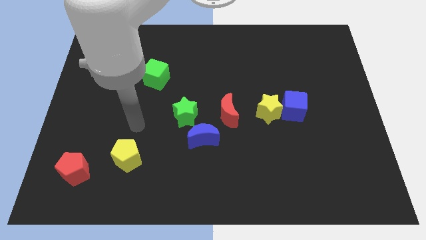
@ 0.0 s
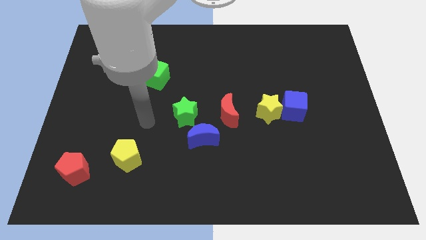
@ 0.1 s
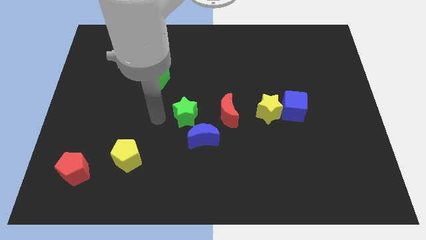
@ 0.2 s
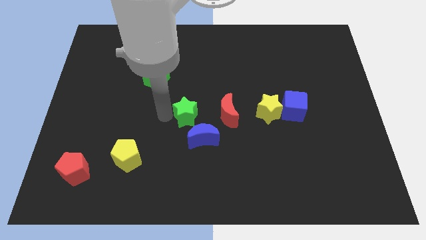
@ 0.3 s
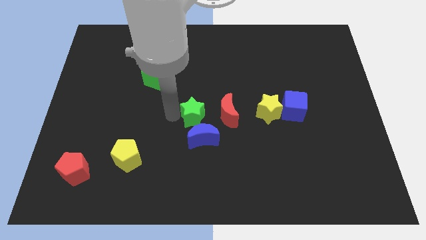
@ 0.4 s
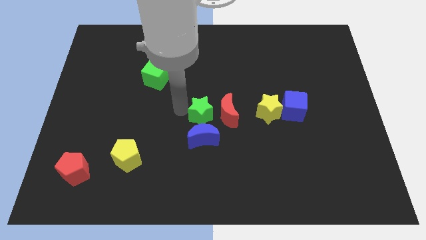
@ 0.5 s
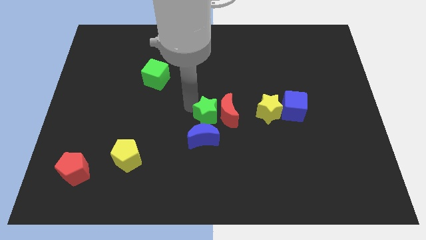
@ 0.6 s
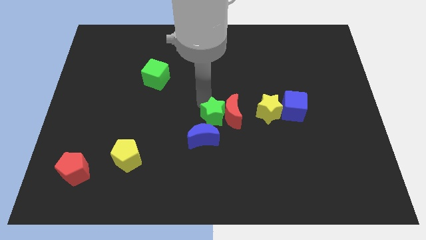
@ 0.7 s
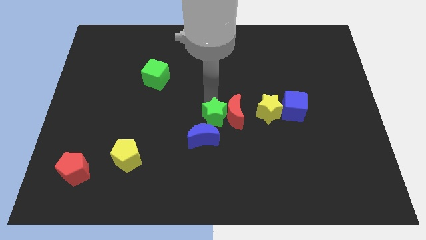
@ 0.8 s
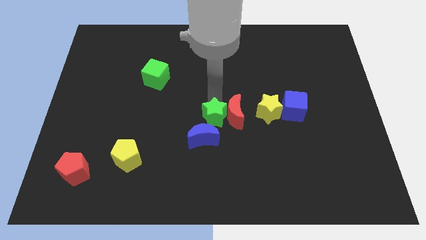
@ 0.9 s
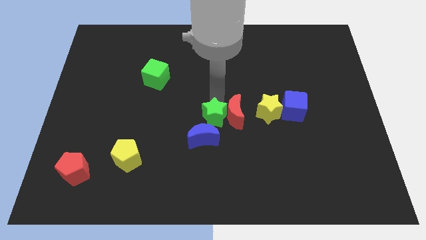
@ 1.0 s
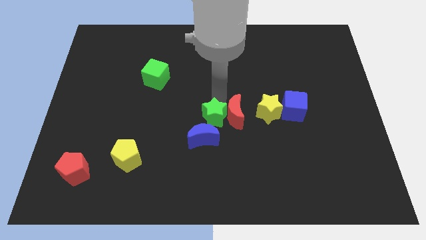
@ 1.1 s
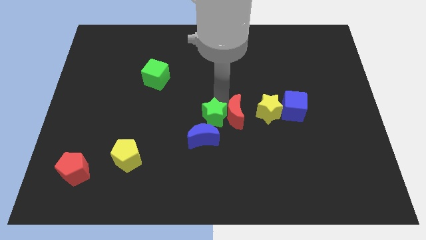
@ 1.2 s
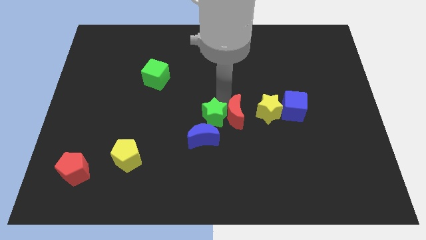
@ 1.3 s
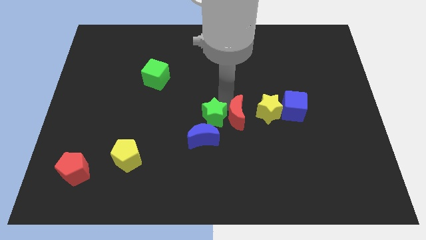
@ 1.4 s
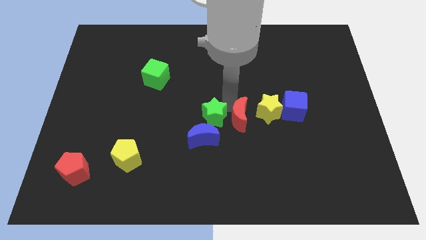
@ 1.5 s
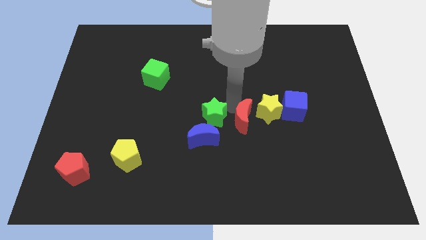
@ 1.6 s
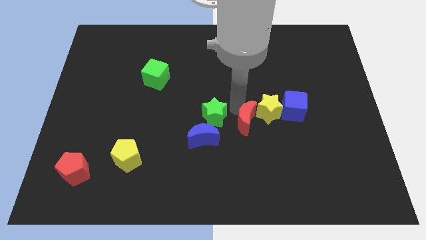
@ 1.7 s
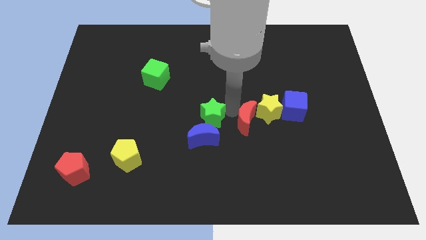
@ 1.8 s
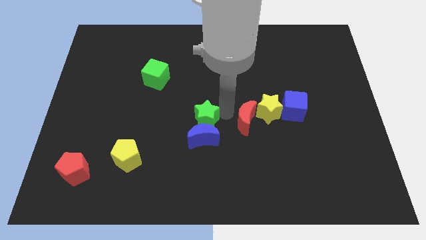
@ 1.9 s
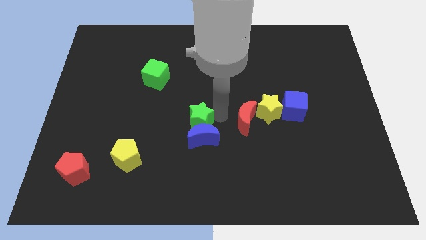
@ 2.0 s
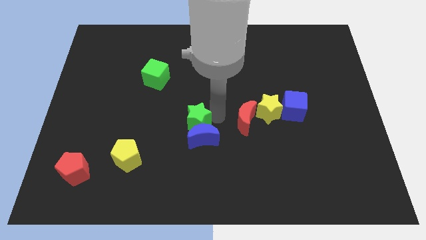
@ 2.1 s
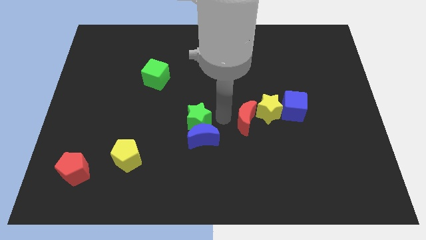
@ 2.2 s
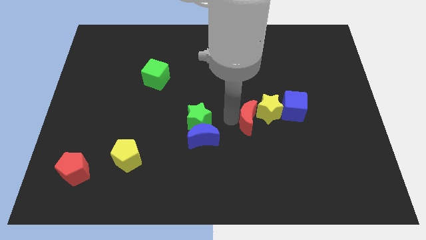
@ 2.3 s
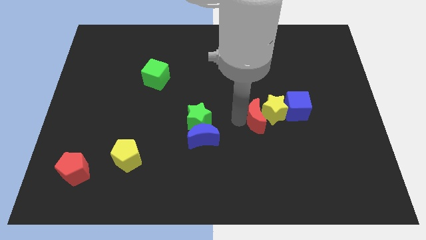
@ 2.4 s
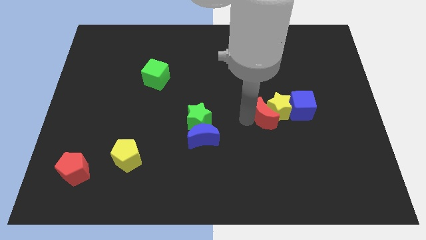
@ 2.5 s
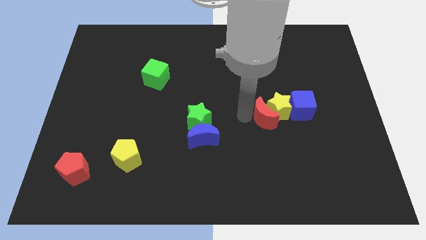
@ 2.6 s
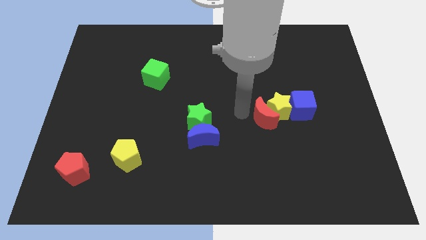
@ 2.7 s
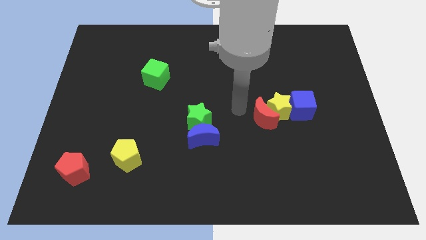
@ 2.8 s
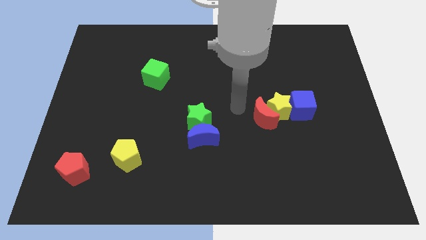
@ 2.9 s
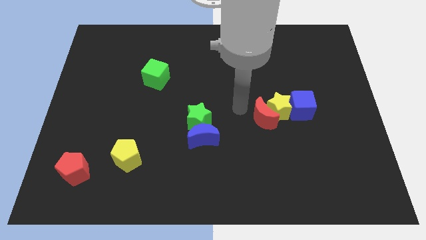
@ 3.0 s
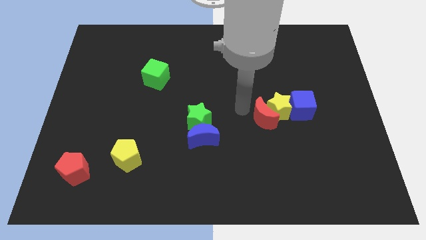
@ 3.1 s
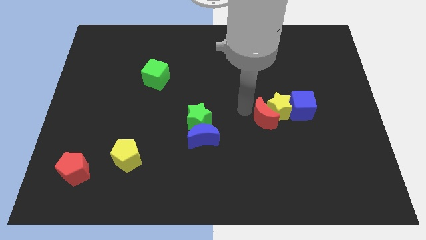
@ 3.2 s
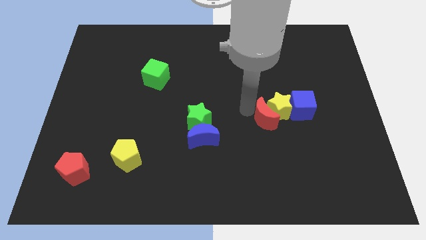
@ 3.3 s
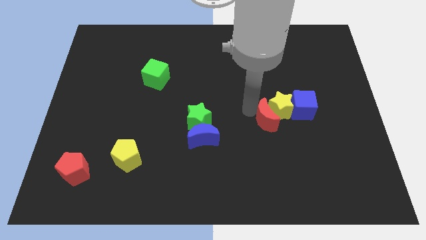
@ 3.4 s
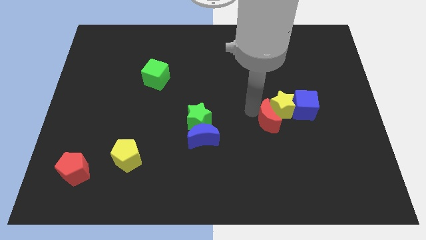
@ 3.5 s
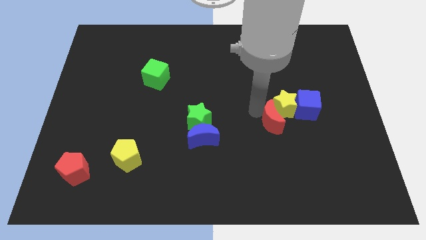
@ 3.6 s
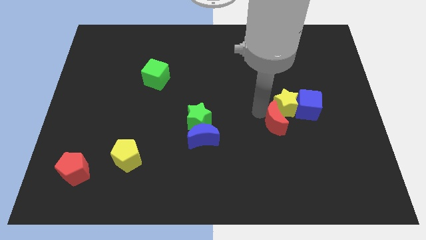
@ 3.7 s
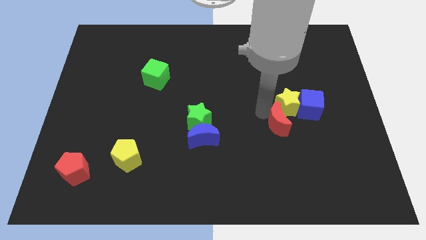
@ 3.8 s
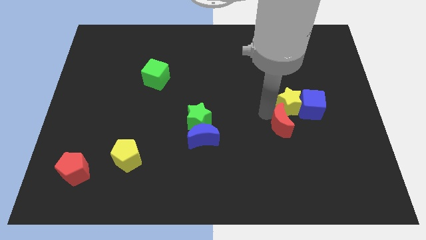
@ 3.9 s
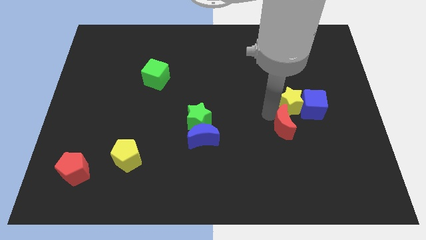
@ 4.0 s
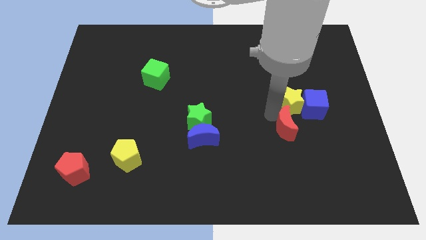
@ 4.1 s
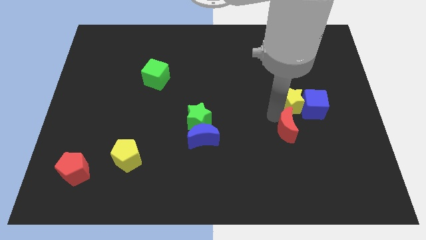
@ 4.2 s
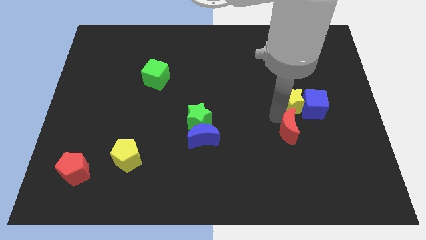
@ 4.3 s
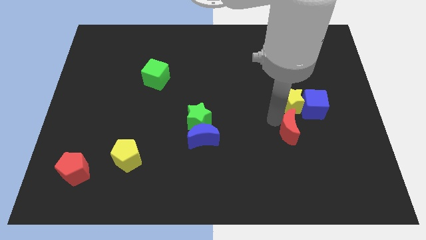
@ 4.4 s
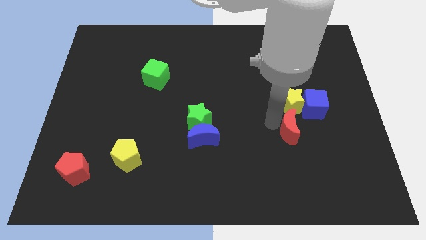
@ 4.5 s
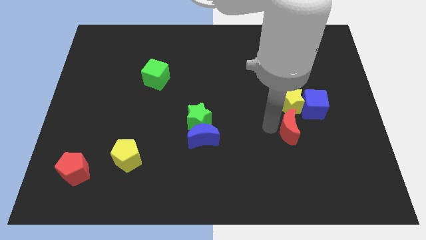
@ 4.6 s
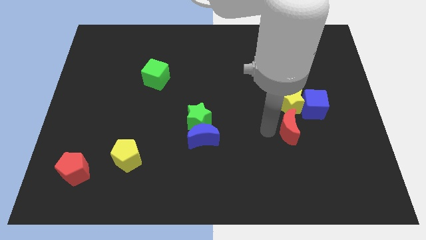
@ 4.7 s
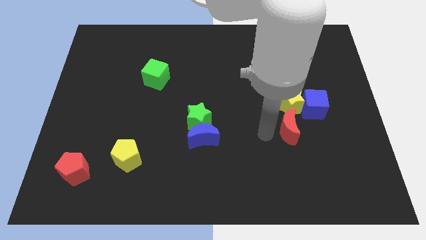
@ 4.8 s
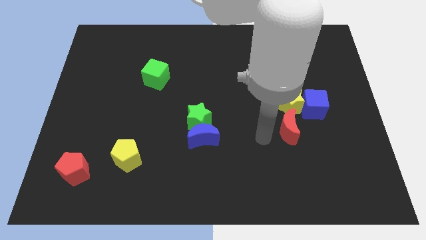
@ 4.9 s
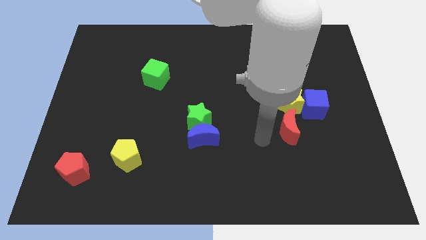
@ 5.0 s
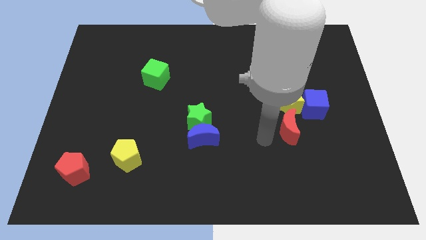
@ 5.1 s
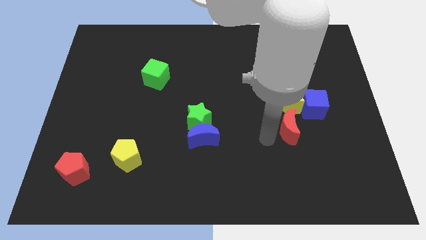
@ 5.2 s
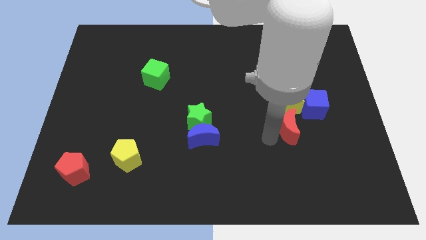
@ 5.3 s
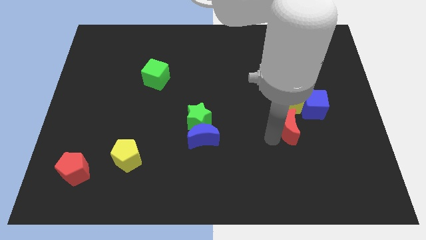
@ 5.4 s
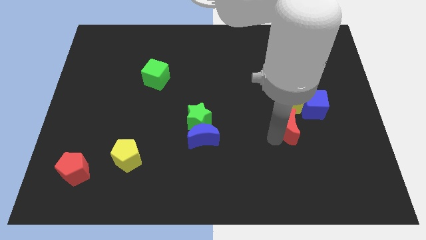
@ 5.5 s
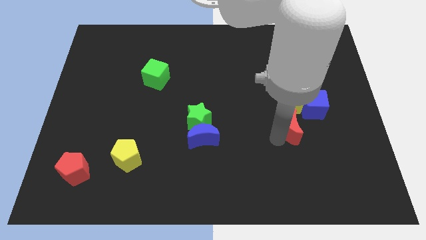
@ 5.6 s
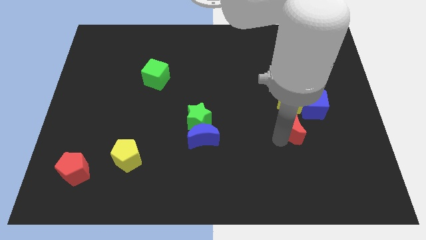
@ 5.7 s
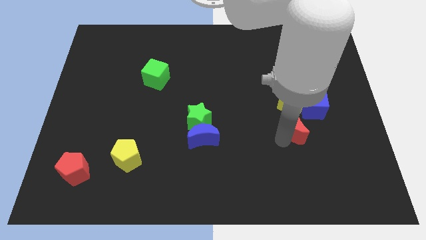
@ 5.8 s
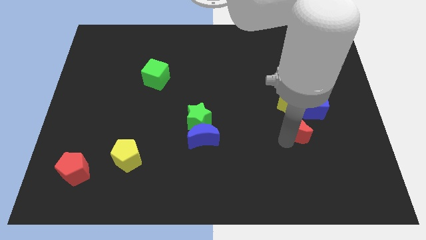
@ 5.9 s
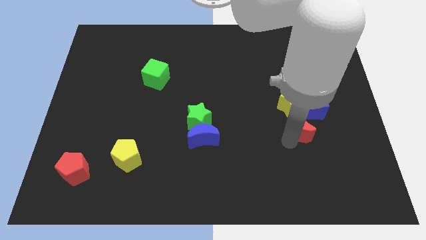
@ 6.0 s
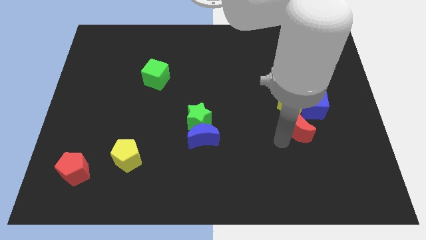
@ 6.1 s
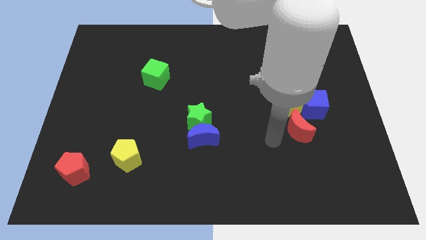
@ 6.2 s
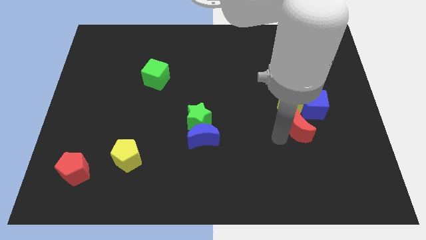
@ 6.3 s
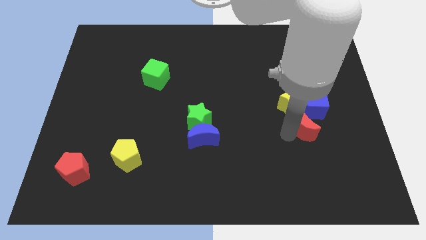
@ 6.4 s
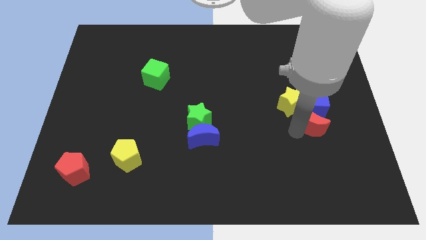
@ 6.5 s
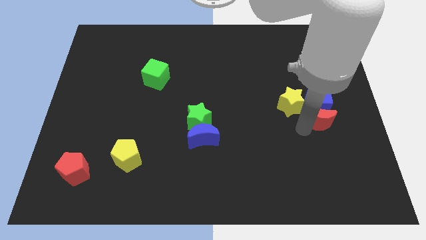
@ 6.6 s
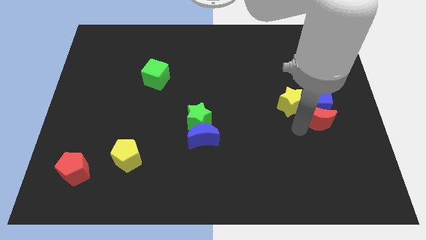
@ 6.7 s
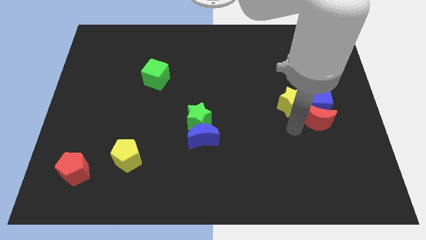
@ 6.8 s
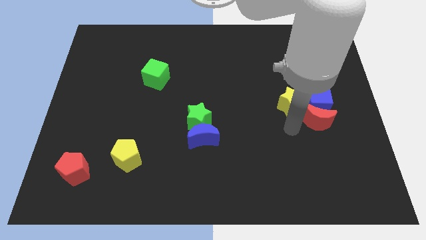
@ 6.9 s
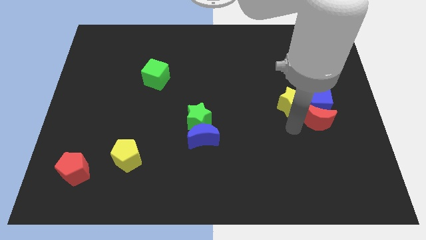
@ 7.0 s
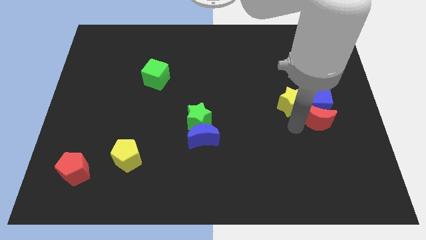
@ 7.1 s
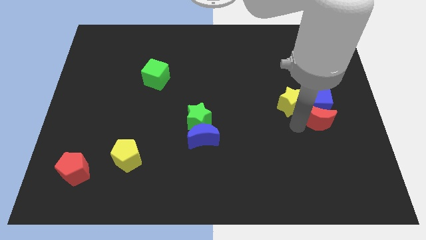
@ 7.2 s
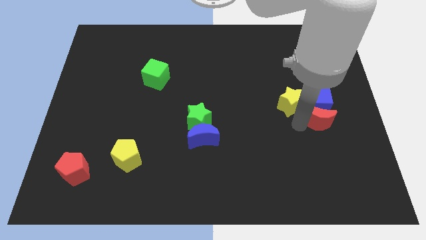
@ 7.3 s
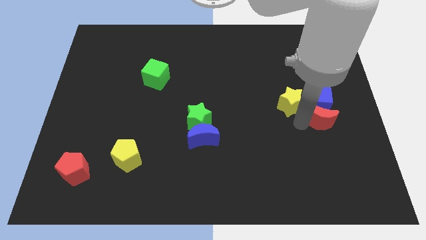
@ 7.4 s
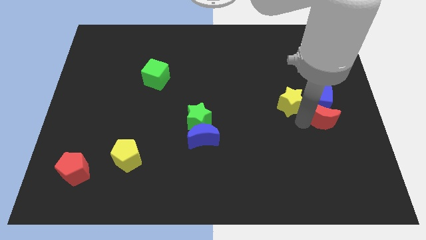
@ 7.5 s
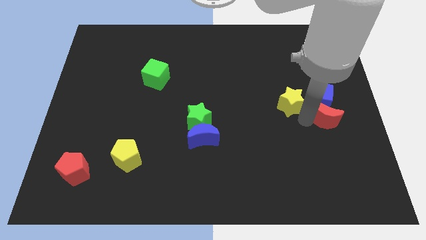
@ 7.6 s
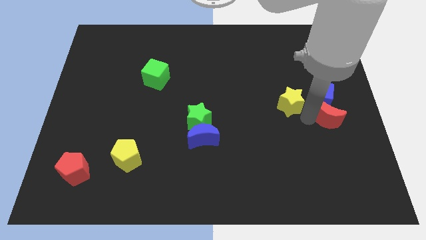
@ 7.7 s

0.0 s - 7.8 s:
slide the red moon to the right side
